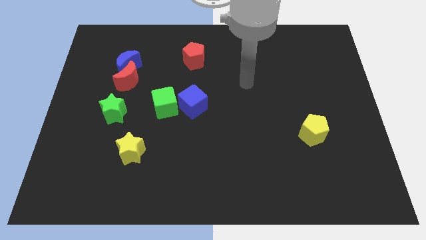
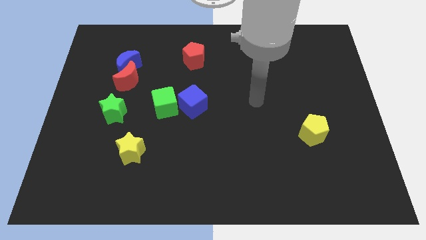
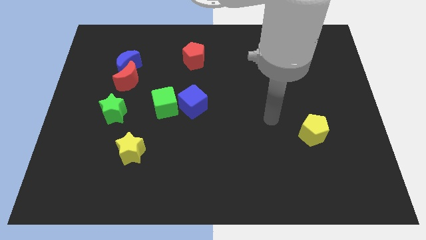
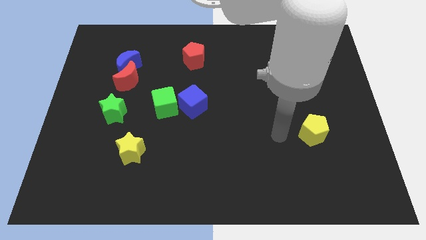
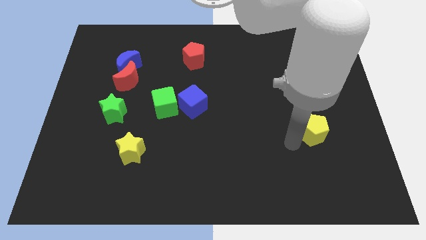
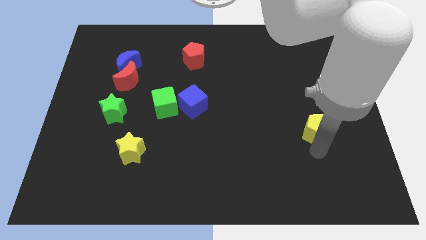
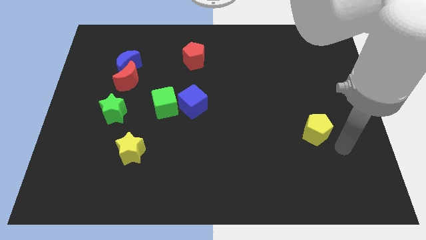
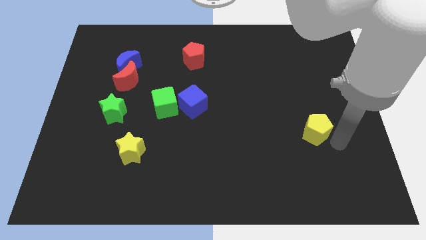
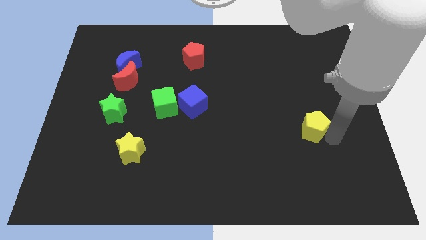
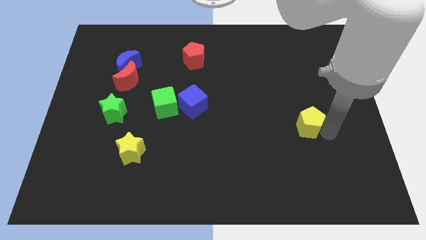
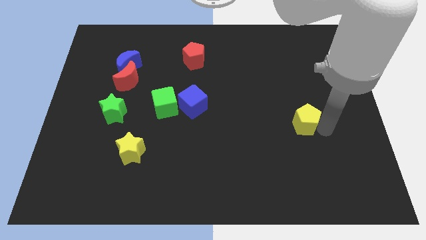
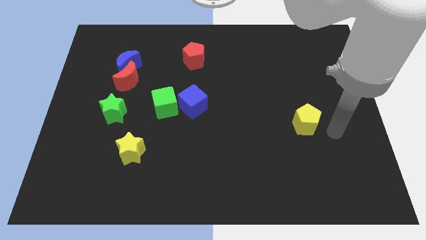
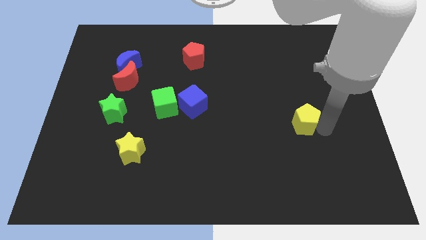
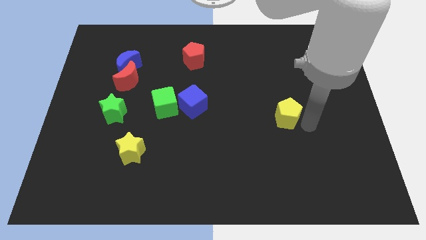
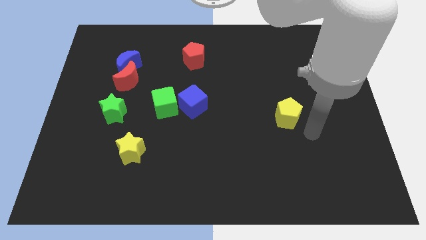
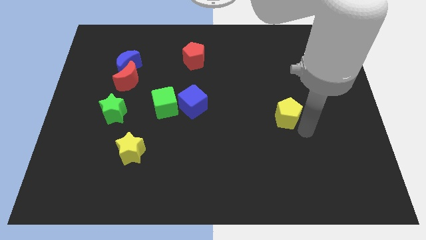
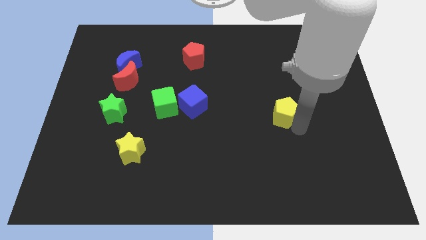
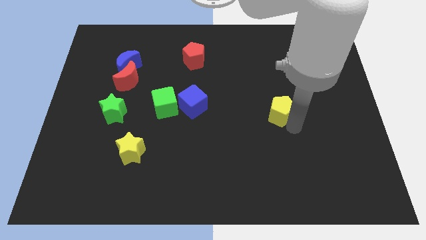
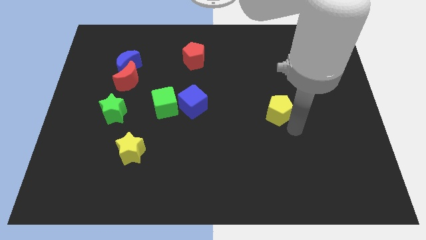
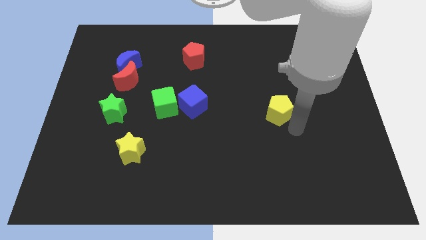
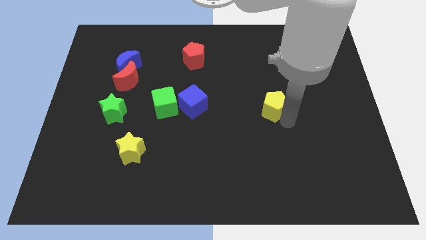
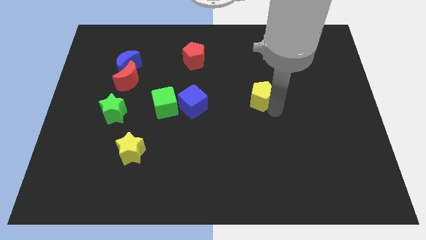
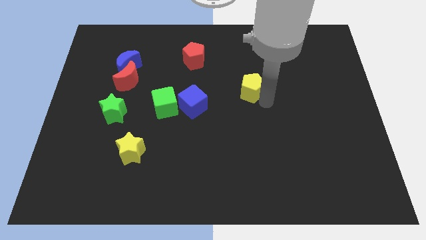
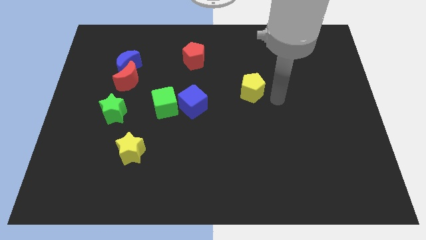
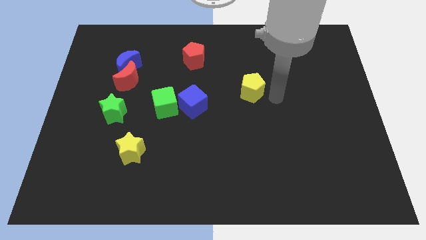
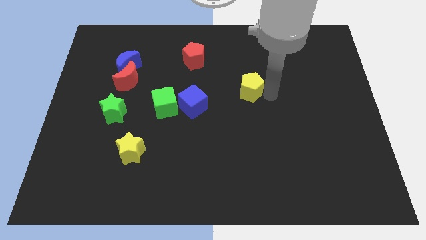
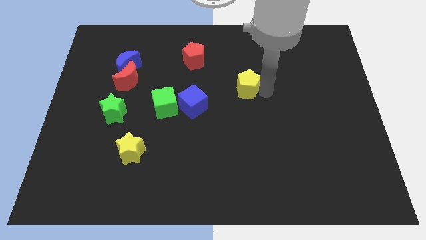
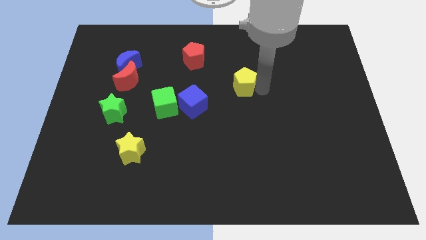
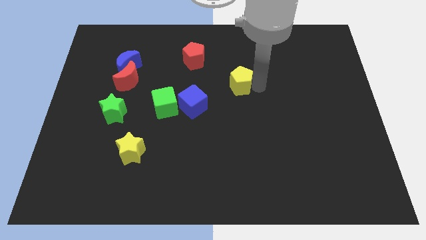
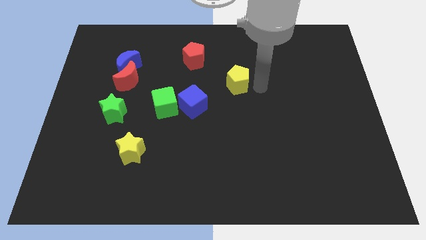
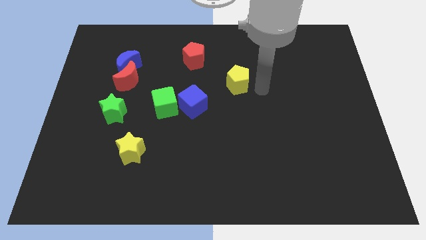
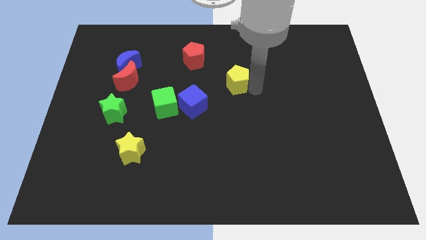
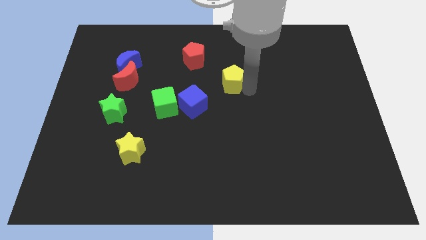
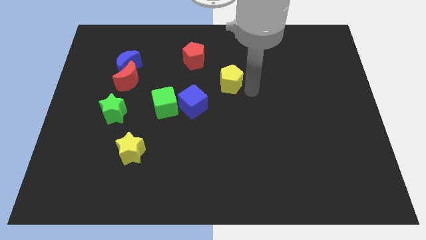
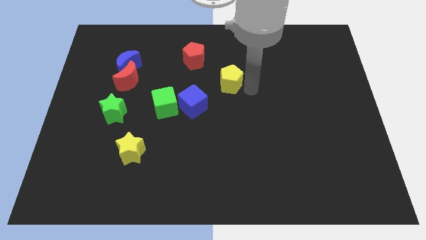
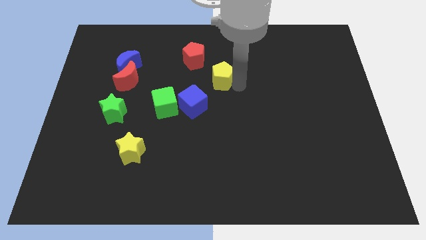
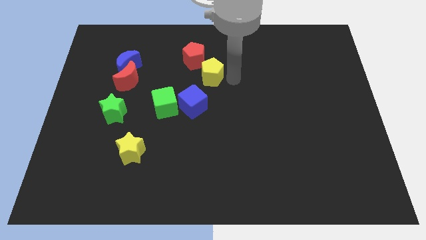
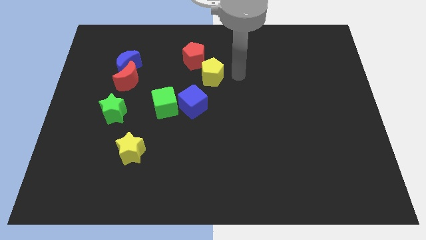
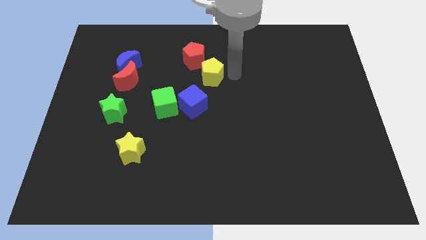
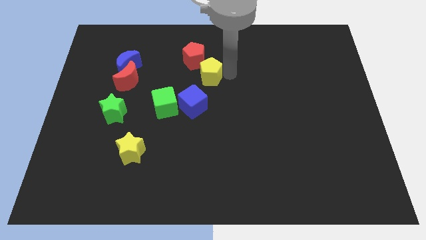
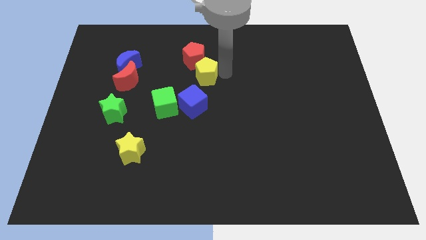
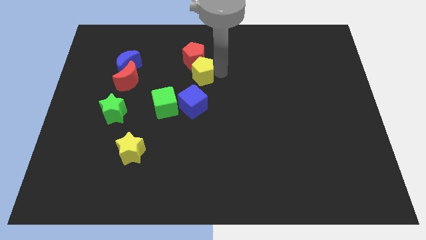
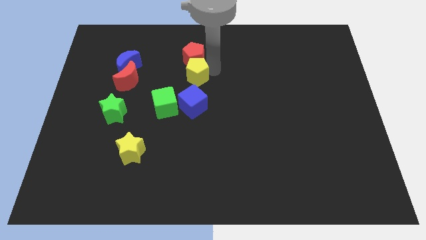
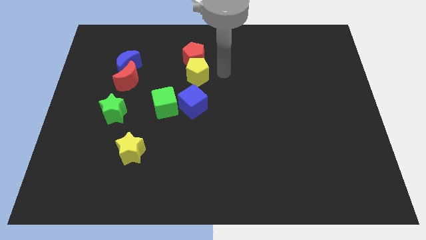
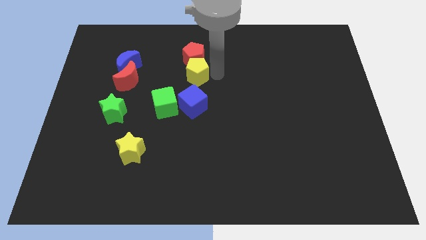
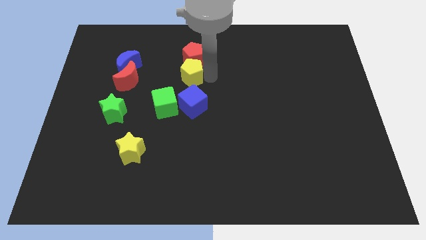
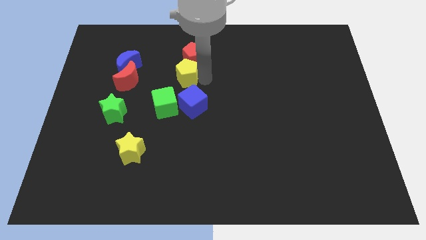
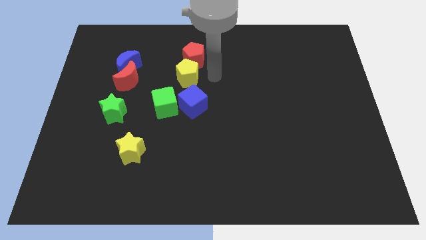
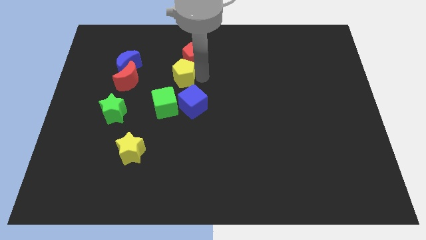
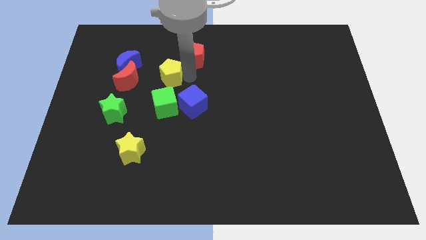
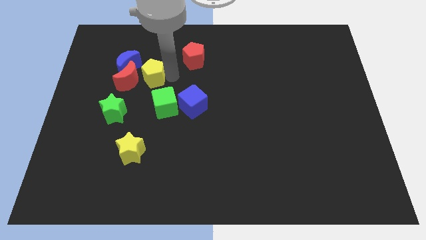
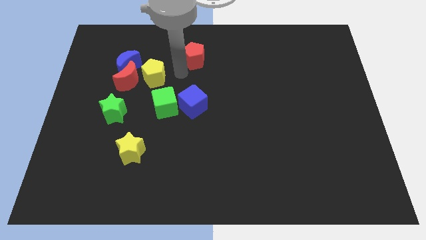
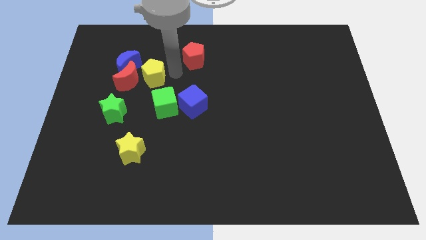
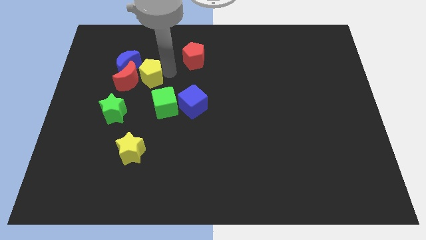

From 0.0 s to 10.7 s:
move the yellow pentagon to the red moon

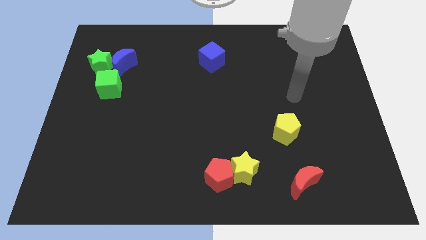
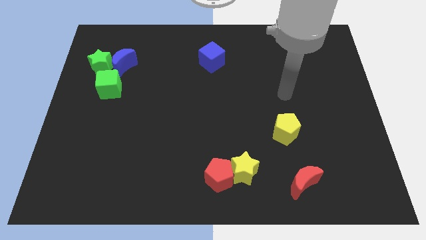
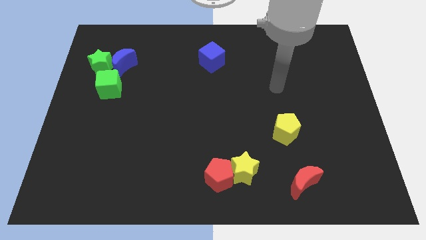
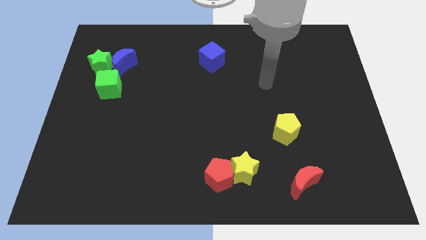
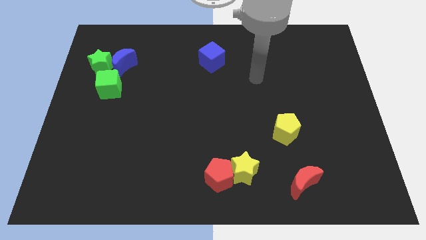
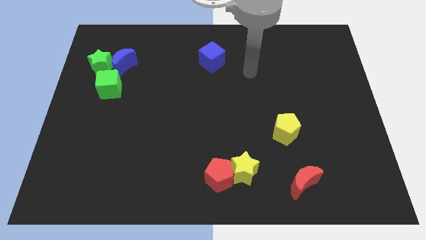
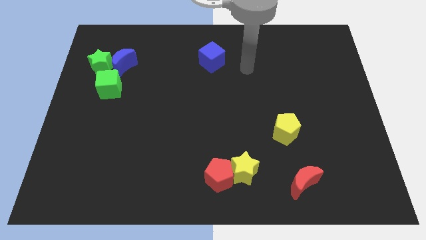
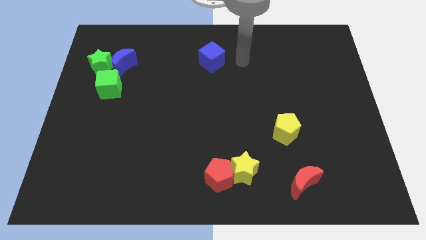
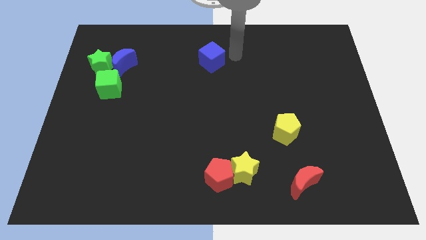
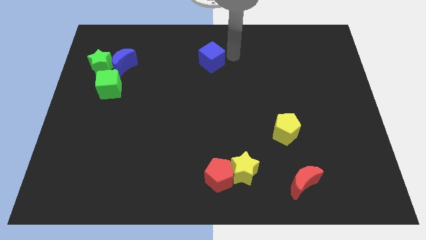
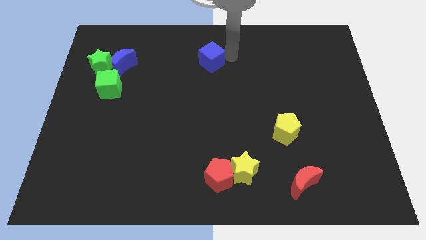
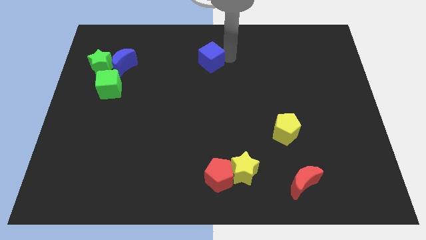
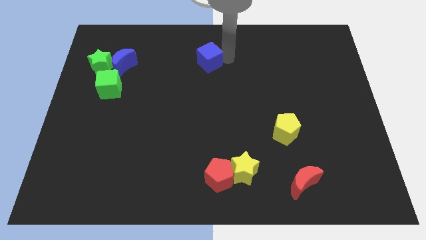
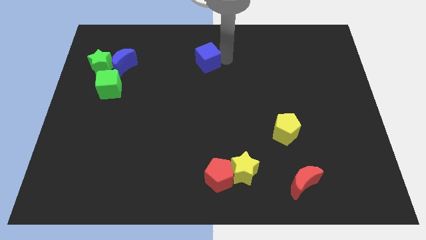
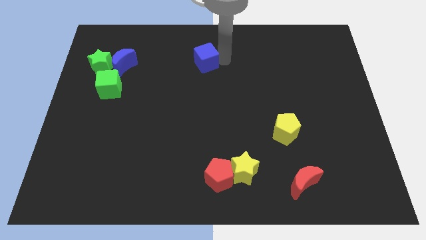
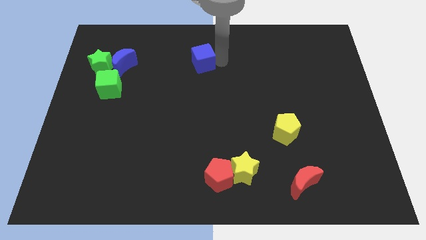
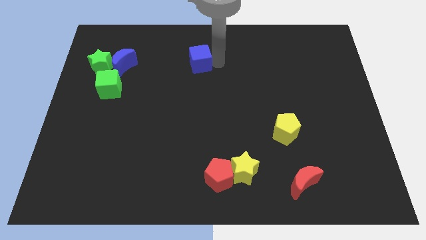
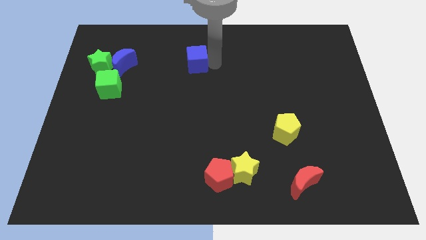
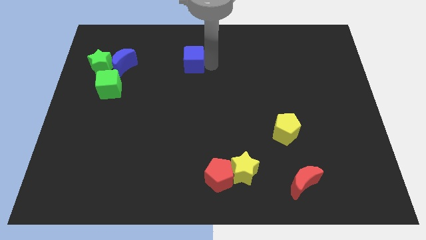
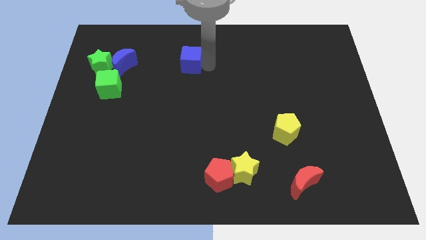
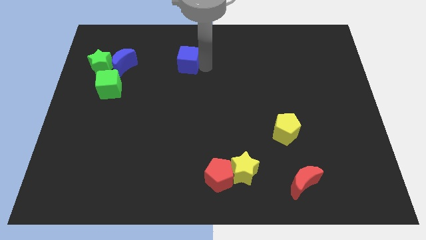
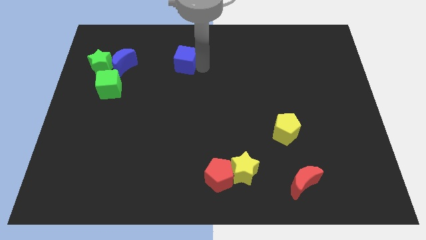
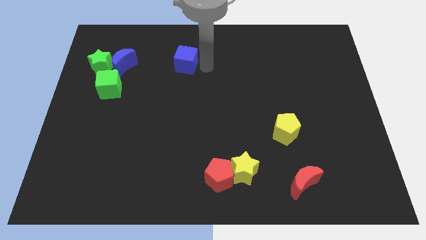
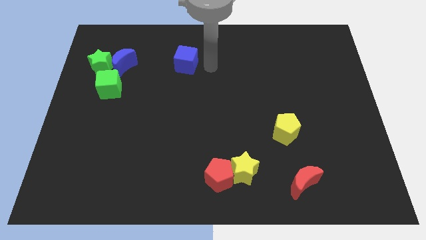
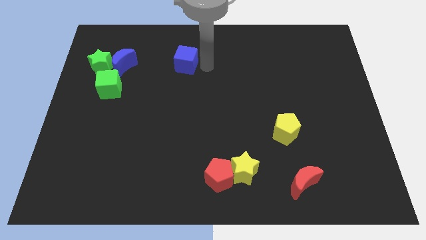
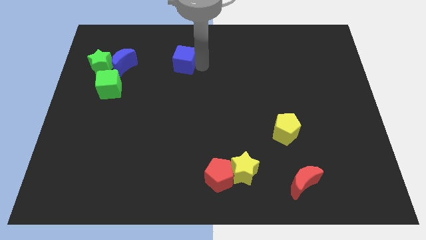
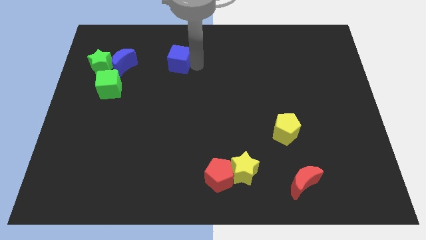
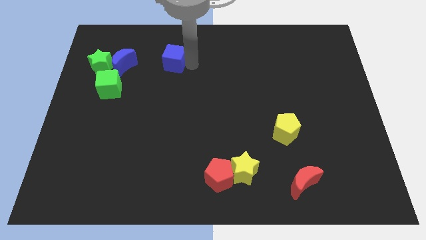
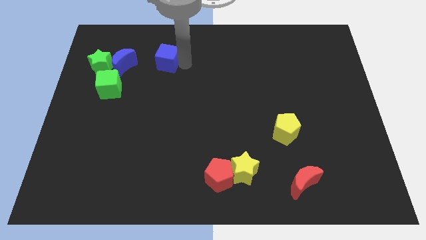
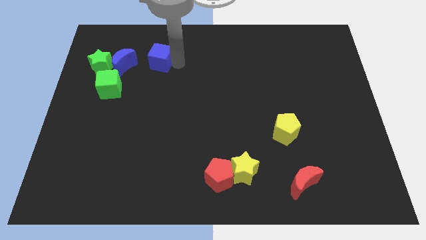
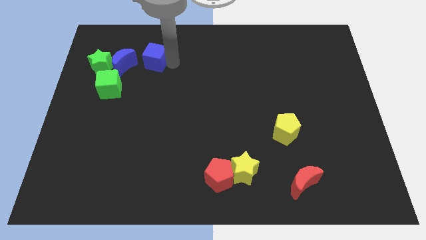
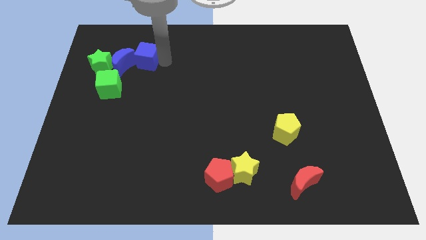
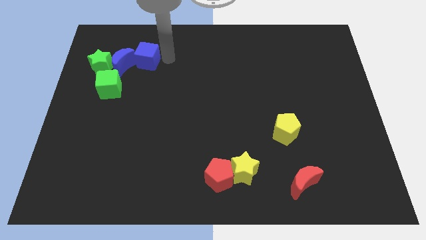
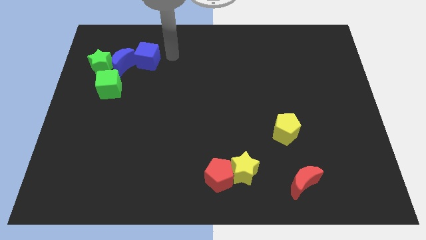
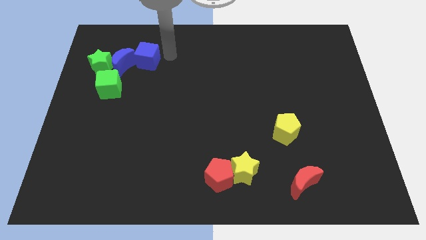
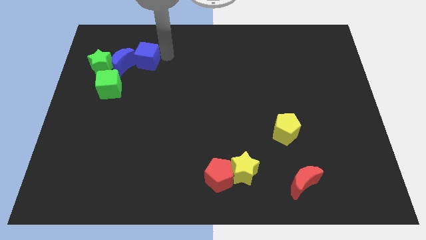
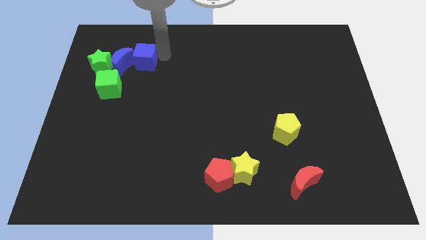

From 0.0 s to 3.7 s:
push the blue cube next to the blue moon
